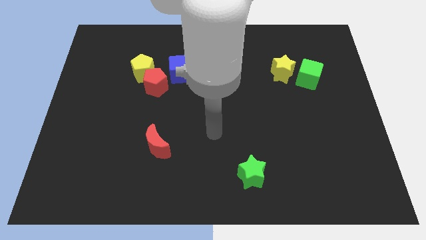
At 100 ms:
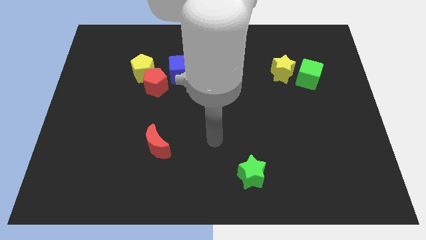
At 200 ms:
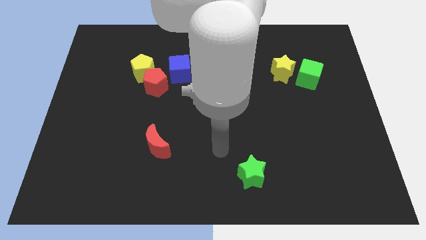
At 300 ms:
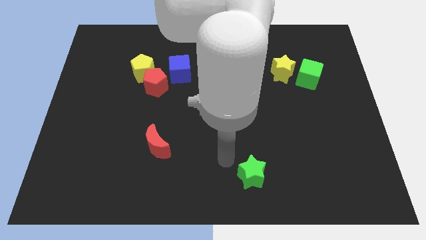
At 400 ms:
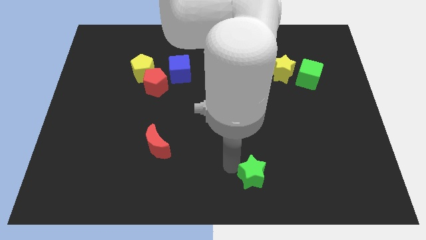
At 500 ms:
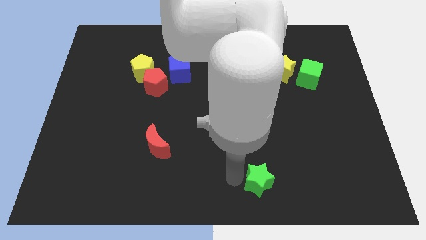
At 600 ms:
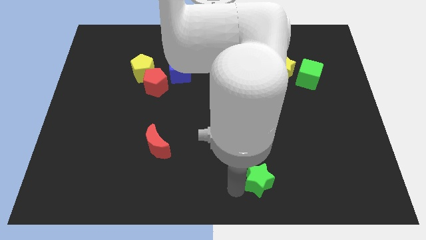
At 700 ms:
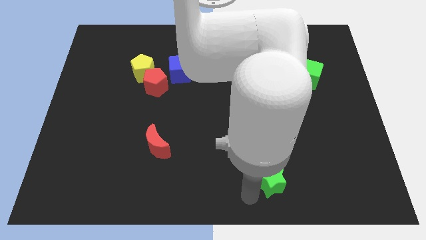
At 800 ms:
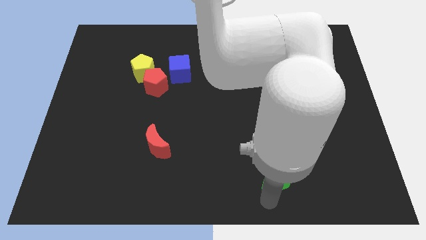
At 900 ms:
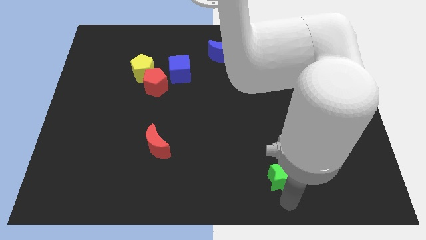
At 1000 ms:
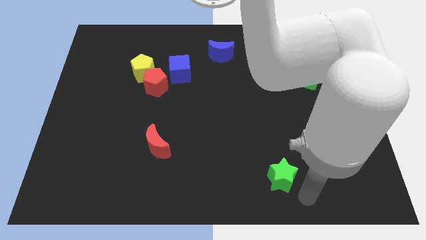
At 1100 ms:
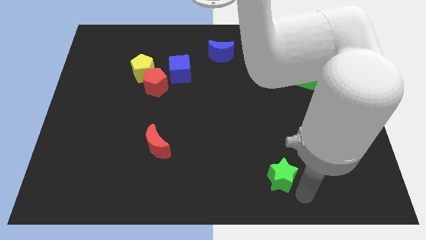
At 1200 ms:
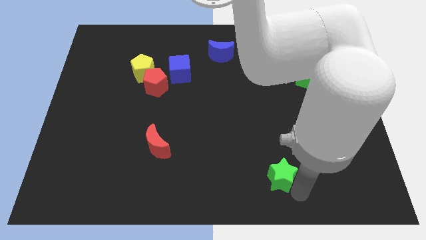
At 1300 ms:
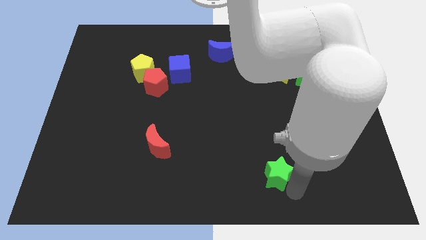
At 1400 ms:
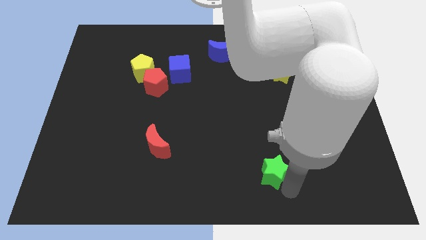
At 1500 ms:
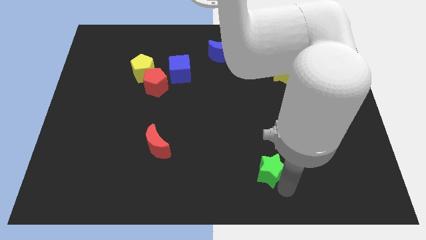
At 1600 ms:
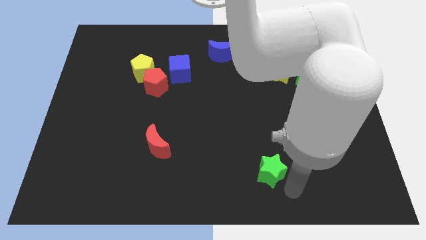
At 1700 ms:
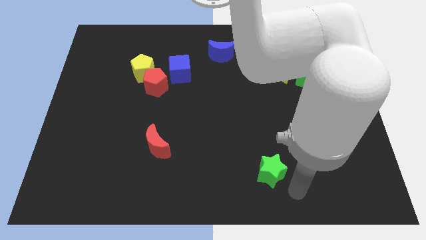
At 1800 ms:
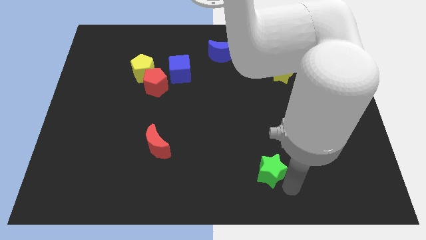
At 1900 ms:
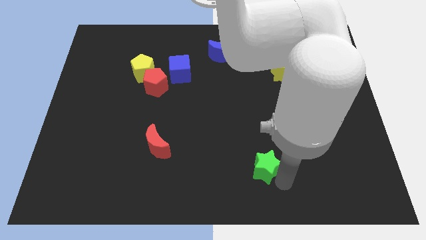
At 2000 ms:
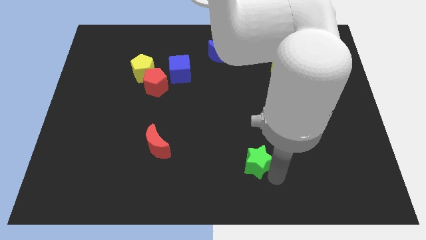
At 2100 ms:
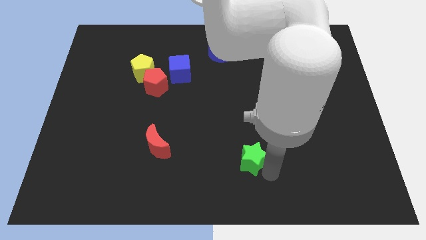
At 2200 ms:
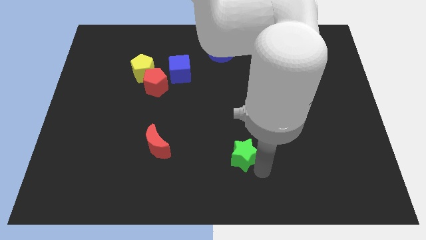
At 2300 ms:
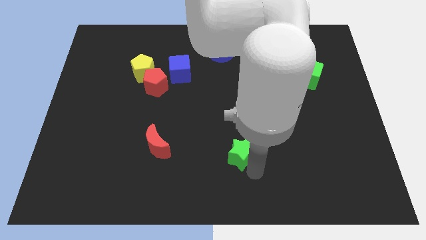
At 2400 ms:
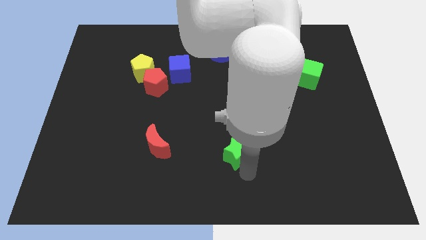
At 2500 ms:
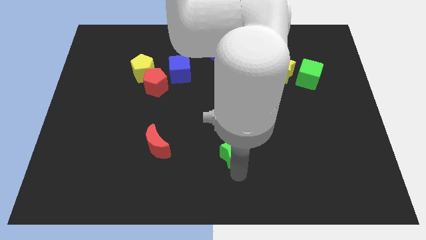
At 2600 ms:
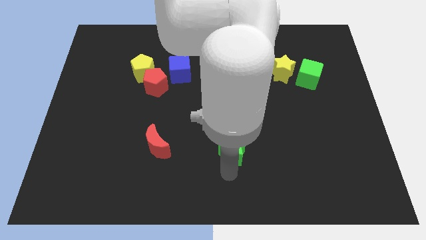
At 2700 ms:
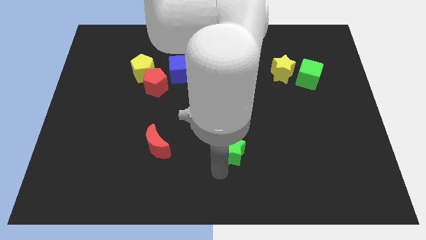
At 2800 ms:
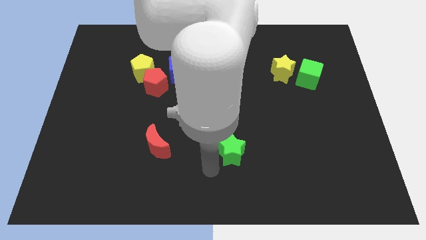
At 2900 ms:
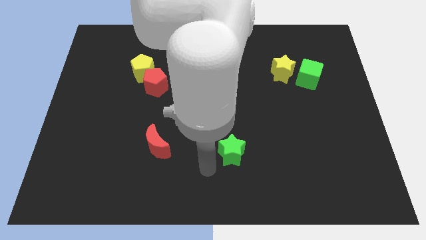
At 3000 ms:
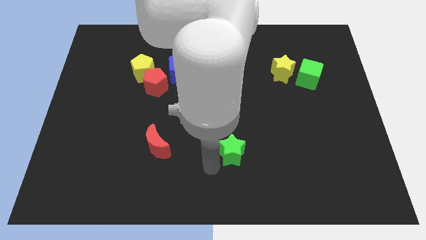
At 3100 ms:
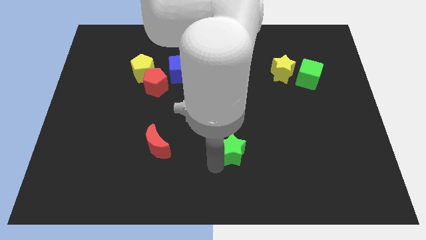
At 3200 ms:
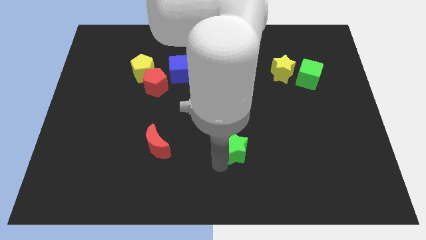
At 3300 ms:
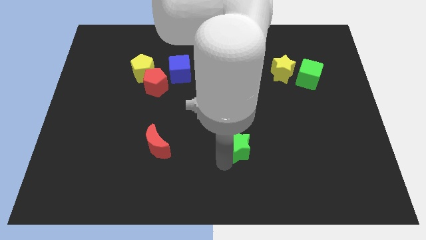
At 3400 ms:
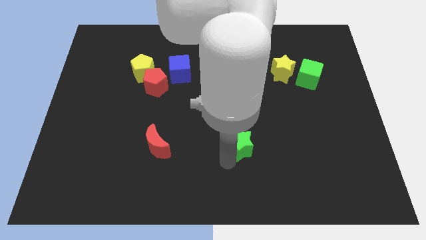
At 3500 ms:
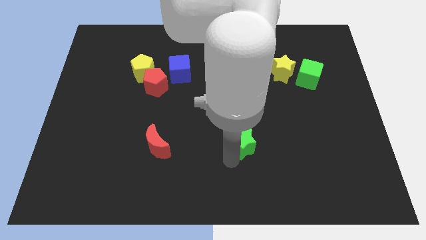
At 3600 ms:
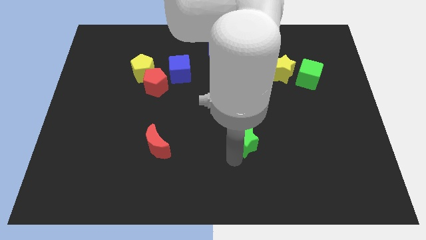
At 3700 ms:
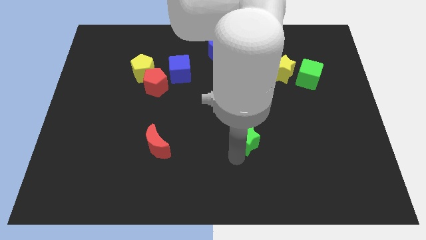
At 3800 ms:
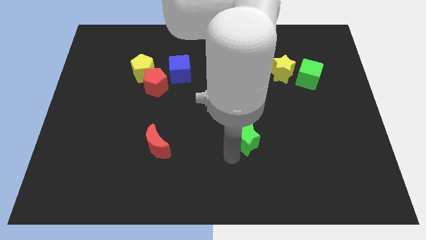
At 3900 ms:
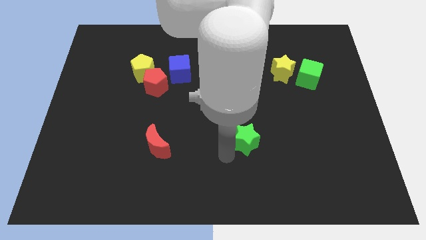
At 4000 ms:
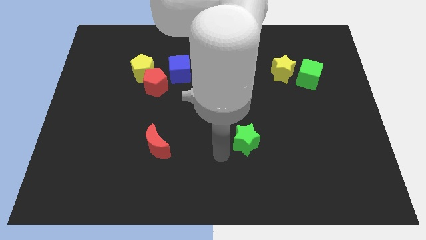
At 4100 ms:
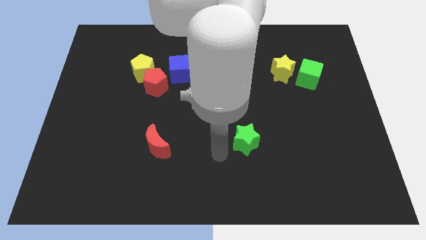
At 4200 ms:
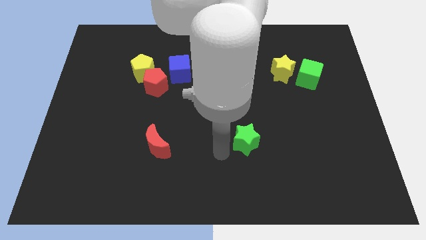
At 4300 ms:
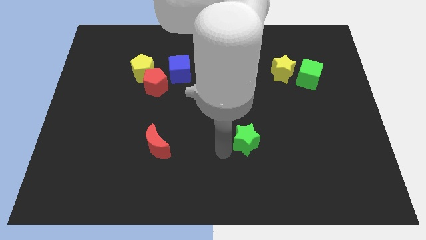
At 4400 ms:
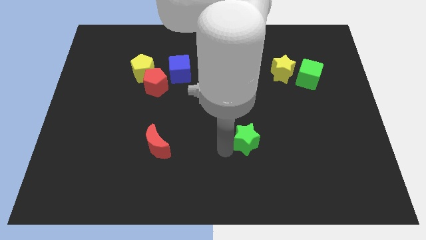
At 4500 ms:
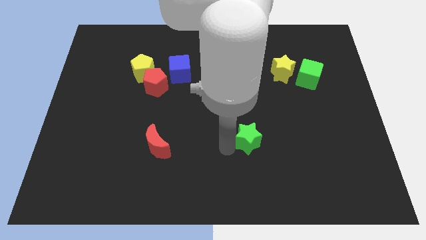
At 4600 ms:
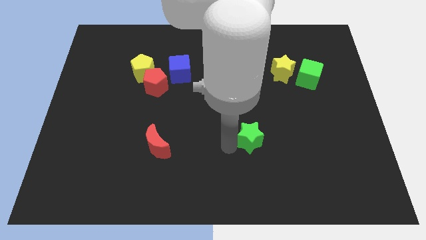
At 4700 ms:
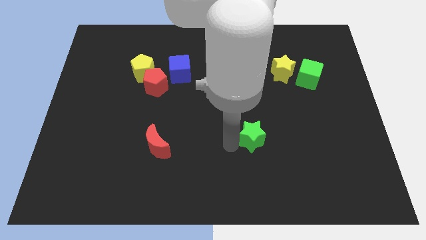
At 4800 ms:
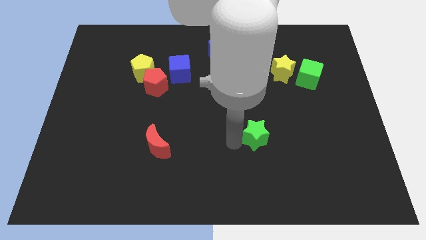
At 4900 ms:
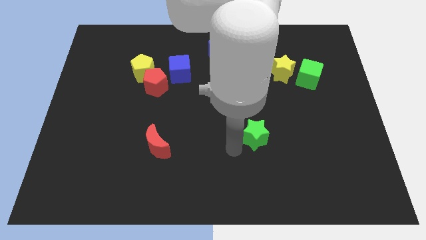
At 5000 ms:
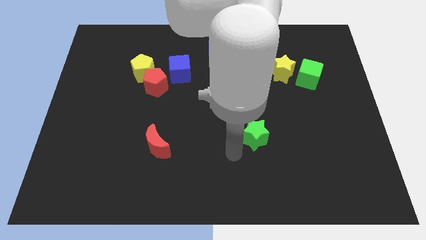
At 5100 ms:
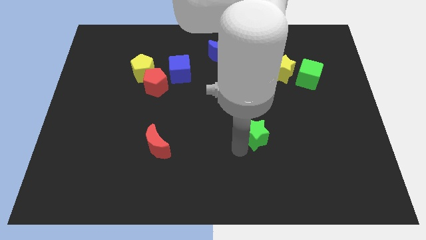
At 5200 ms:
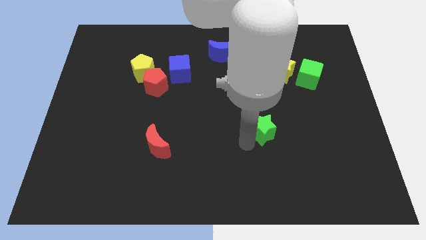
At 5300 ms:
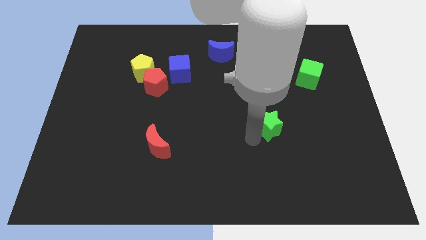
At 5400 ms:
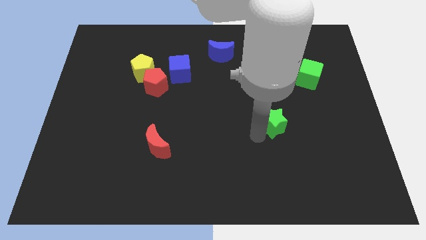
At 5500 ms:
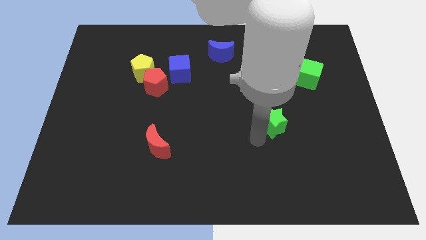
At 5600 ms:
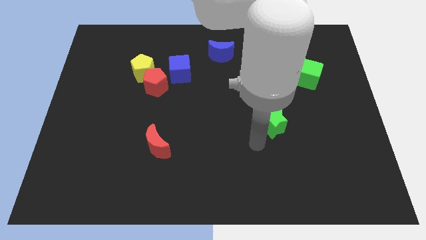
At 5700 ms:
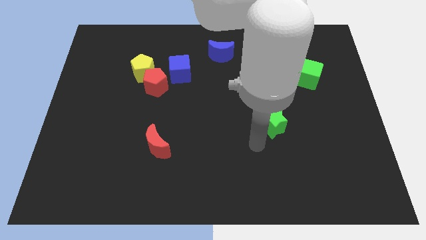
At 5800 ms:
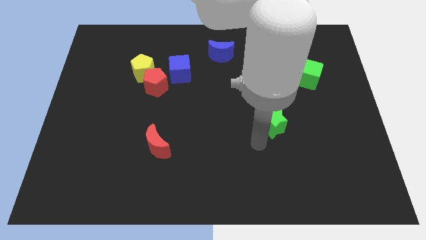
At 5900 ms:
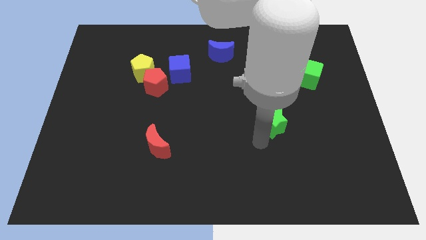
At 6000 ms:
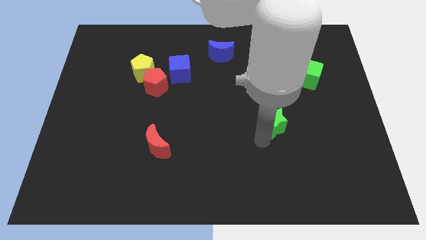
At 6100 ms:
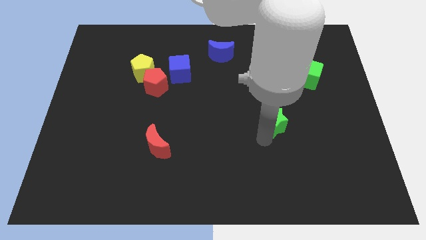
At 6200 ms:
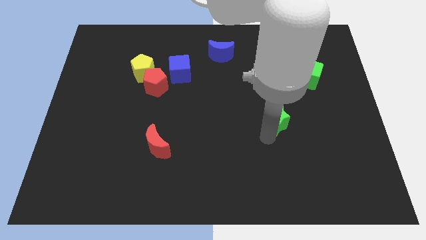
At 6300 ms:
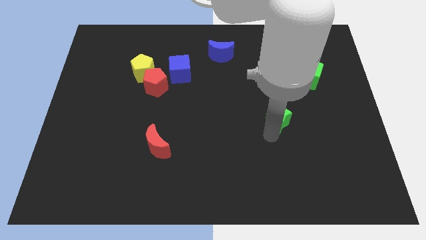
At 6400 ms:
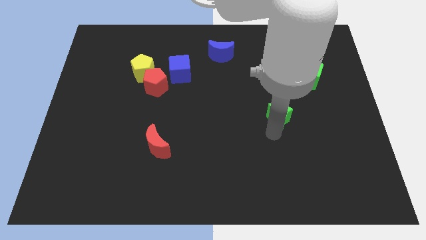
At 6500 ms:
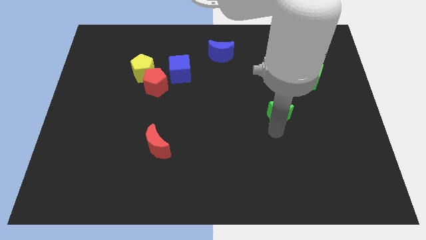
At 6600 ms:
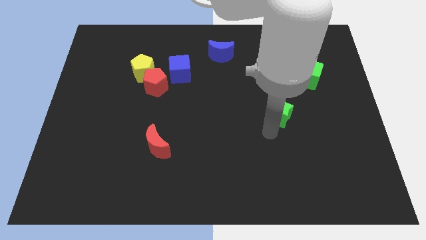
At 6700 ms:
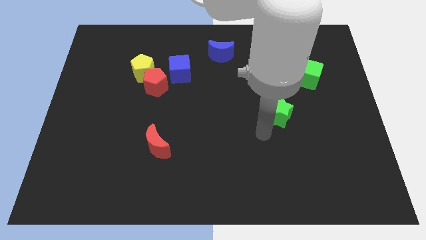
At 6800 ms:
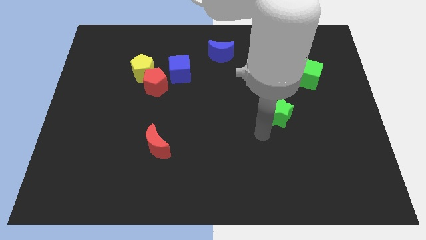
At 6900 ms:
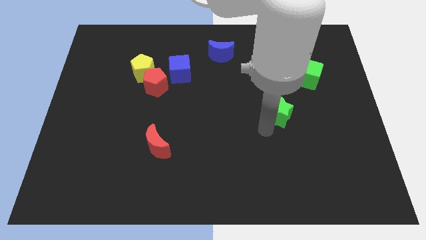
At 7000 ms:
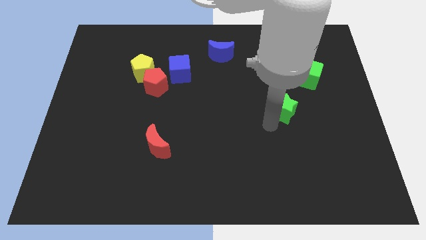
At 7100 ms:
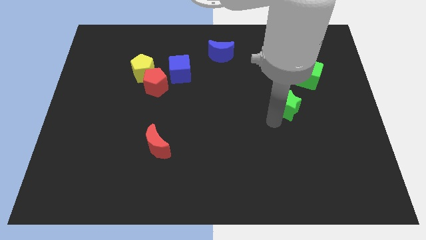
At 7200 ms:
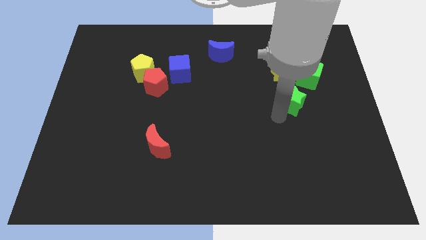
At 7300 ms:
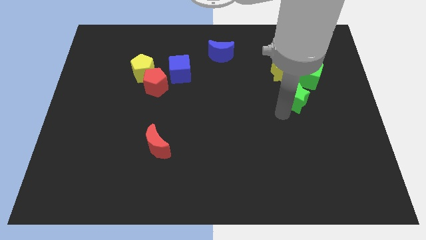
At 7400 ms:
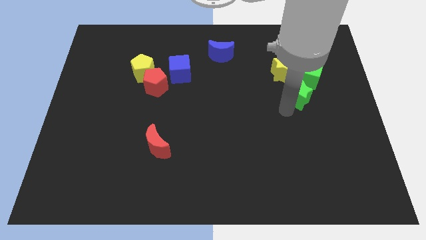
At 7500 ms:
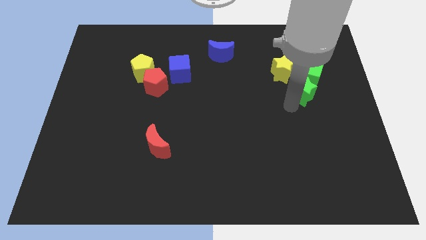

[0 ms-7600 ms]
push the green star next to the green cube
